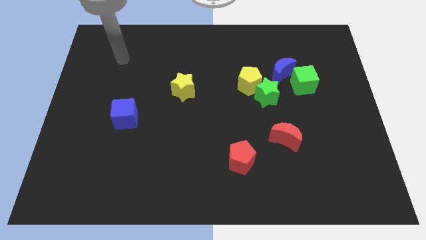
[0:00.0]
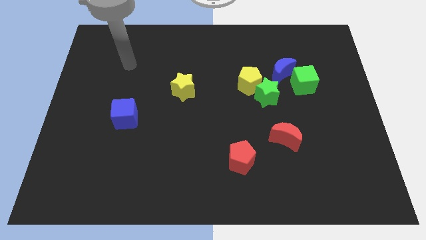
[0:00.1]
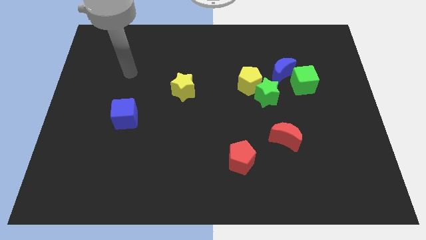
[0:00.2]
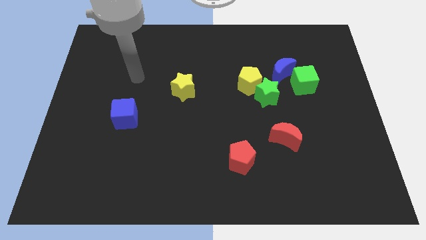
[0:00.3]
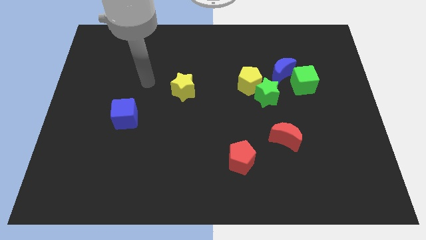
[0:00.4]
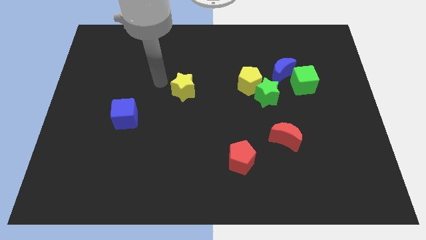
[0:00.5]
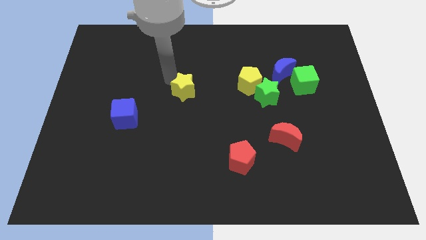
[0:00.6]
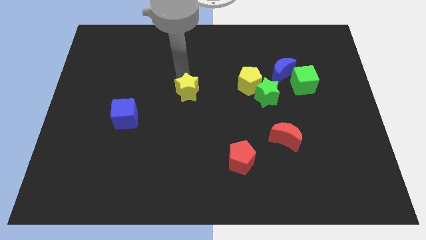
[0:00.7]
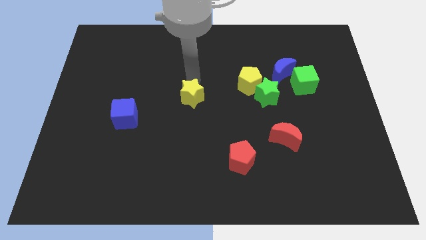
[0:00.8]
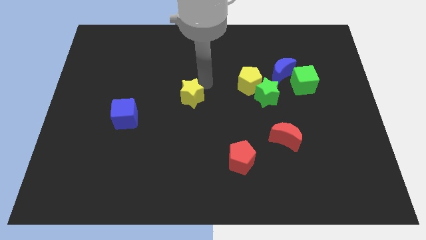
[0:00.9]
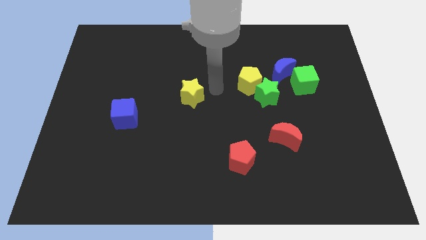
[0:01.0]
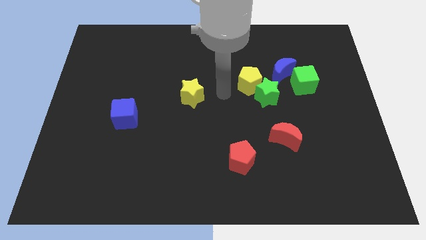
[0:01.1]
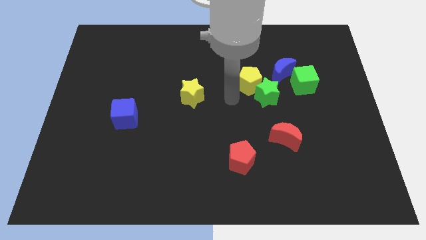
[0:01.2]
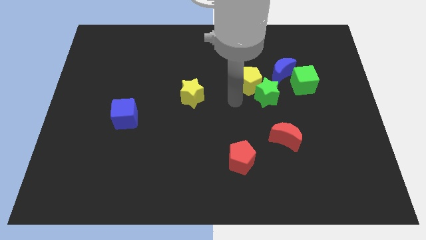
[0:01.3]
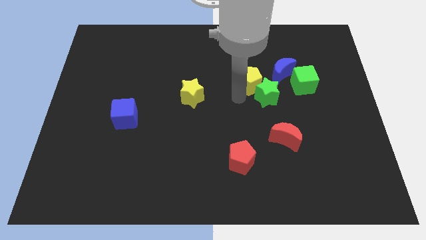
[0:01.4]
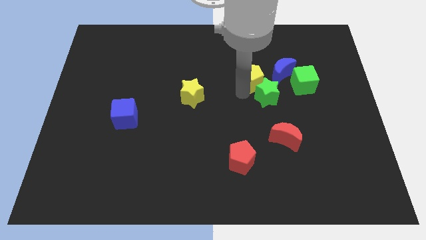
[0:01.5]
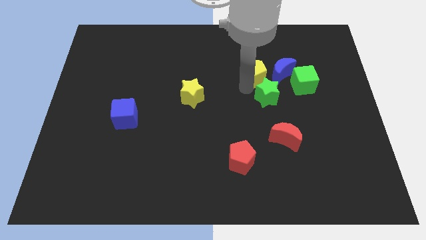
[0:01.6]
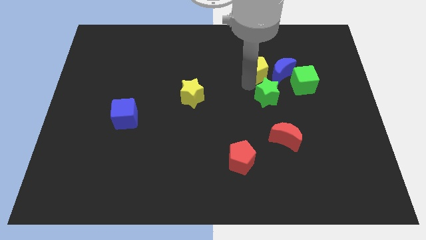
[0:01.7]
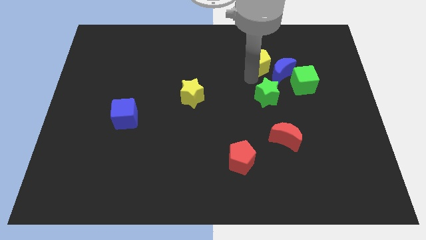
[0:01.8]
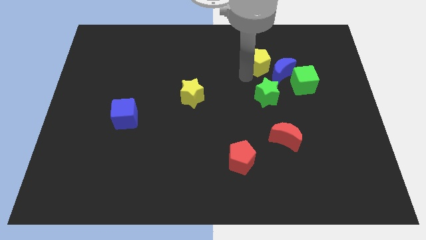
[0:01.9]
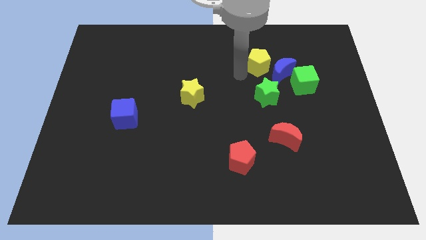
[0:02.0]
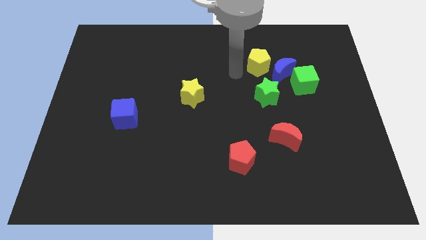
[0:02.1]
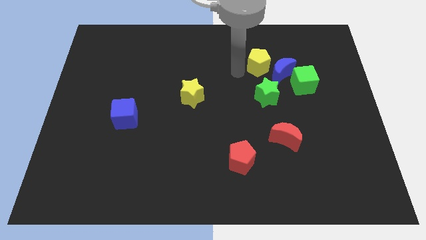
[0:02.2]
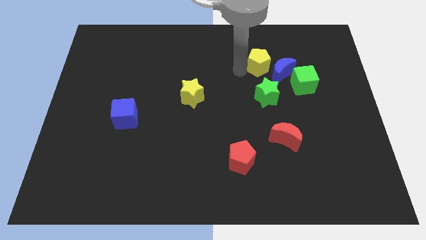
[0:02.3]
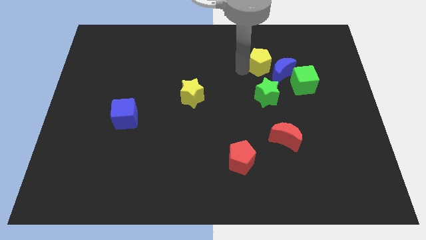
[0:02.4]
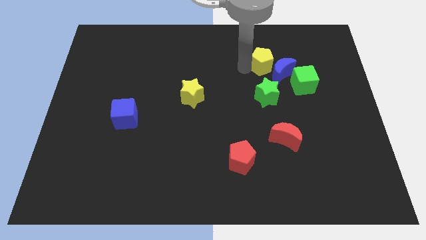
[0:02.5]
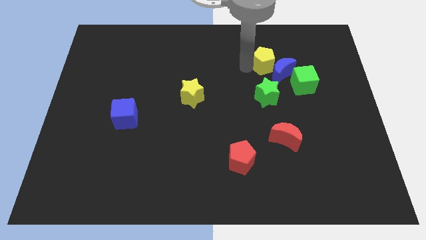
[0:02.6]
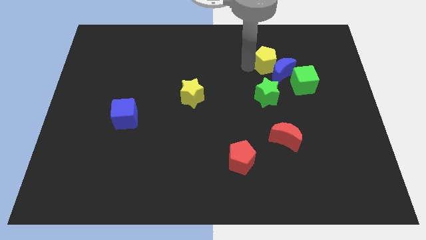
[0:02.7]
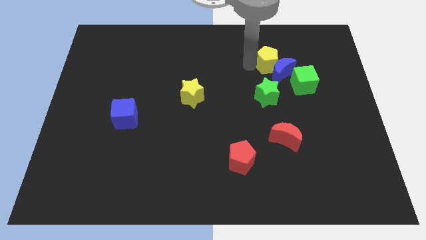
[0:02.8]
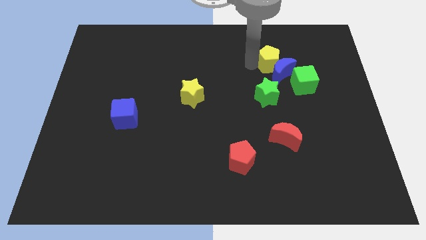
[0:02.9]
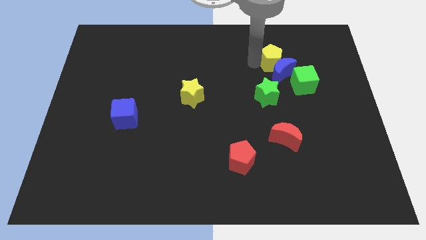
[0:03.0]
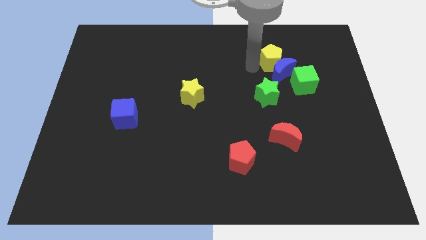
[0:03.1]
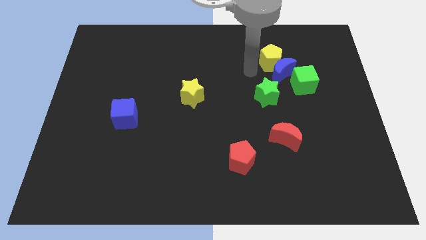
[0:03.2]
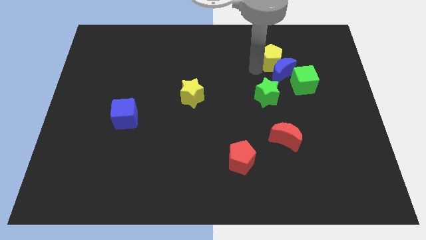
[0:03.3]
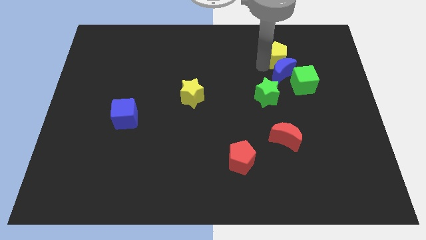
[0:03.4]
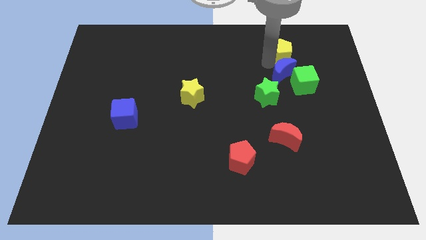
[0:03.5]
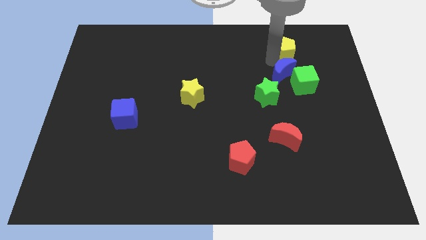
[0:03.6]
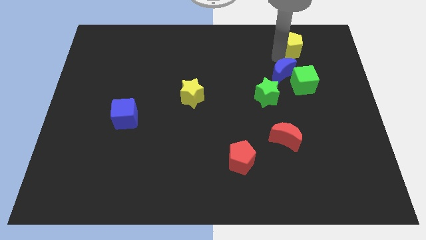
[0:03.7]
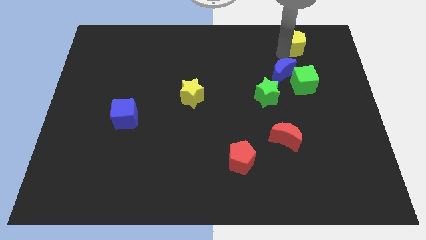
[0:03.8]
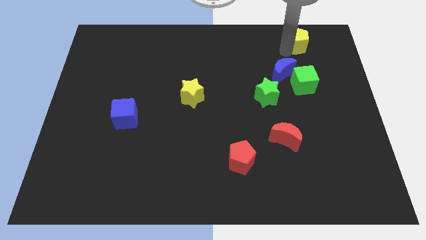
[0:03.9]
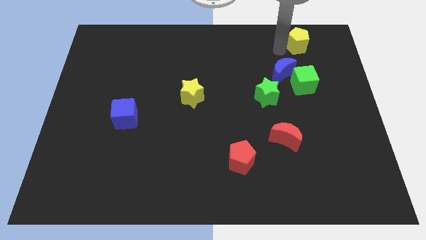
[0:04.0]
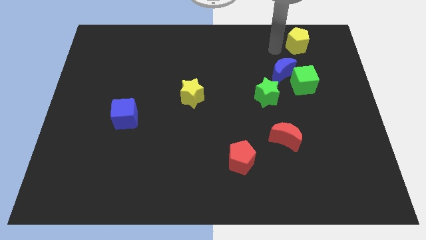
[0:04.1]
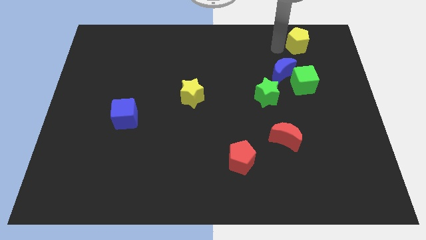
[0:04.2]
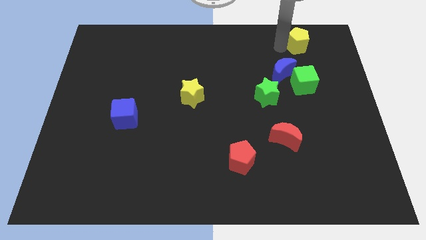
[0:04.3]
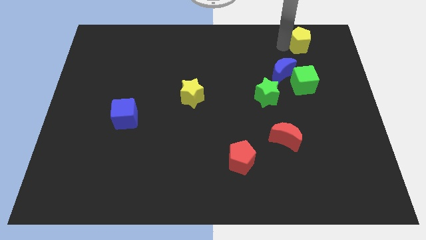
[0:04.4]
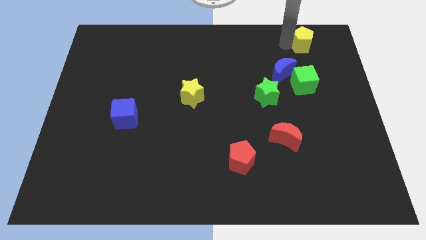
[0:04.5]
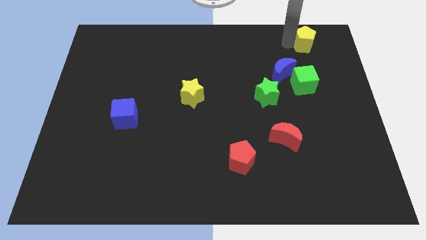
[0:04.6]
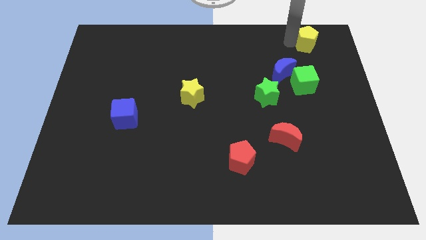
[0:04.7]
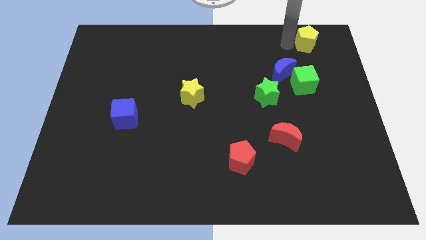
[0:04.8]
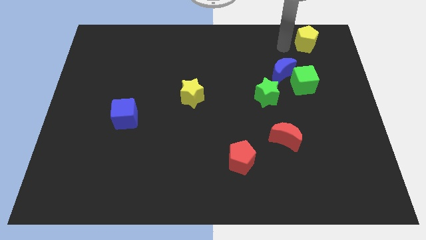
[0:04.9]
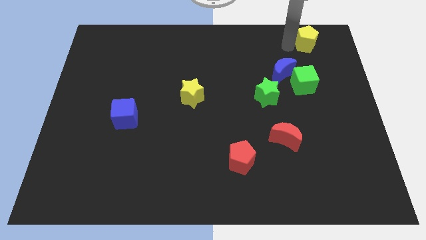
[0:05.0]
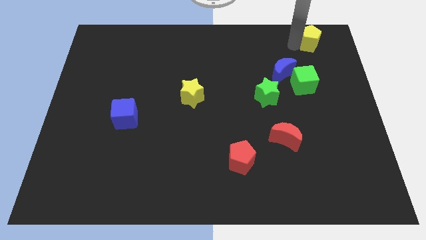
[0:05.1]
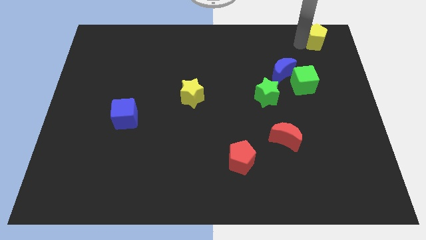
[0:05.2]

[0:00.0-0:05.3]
slide the yellow pentagon to the top right corner

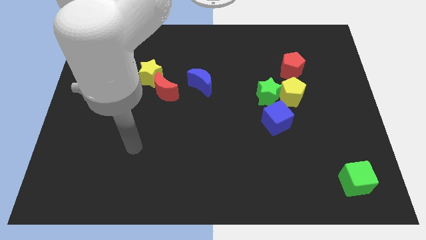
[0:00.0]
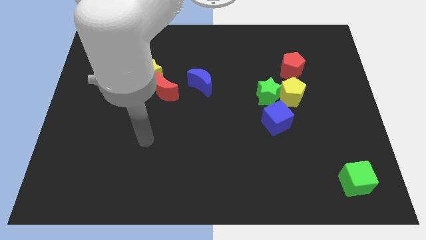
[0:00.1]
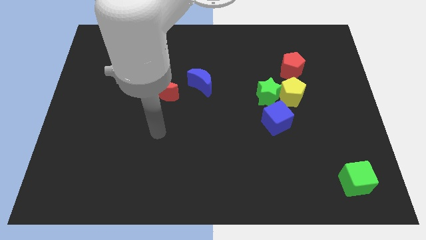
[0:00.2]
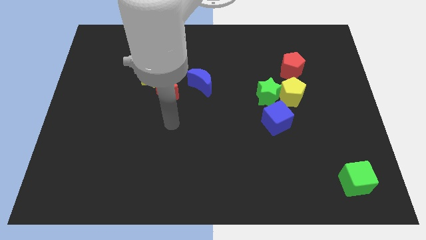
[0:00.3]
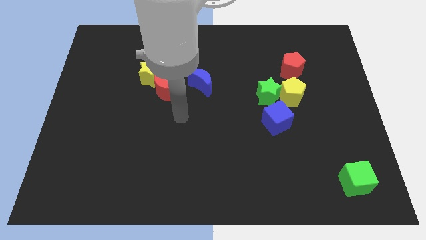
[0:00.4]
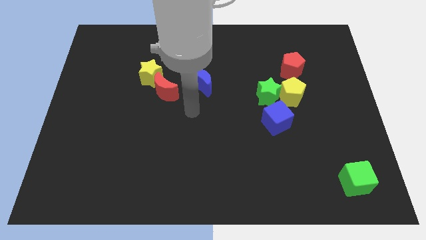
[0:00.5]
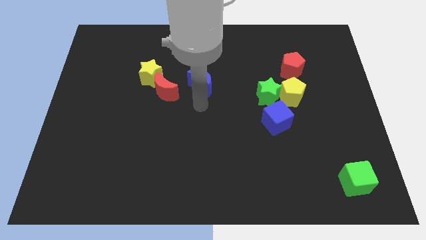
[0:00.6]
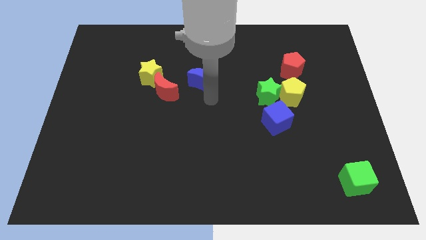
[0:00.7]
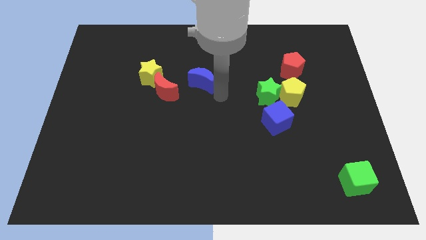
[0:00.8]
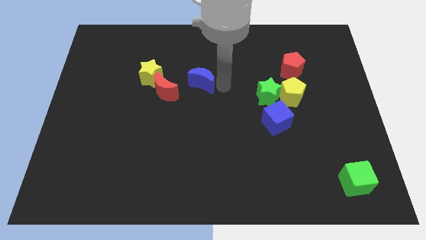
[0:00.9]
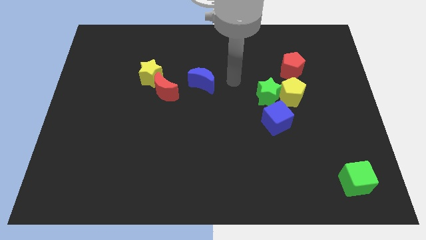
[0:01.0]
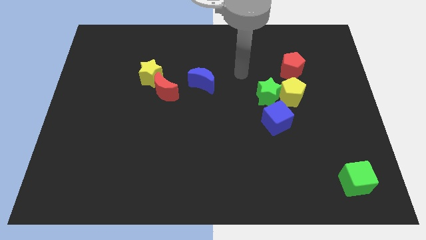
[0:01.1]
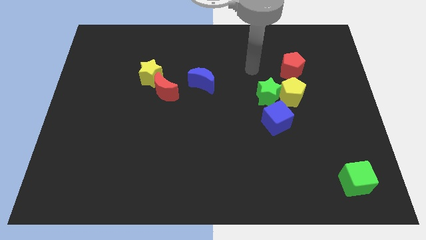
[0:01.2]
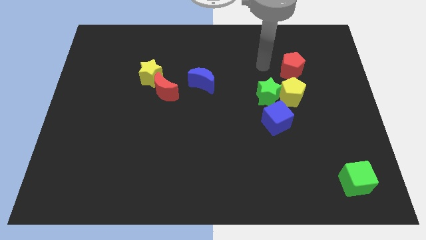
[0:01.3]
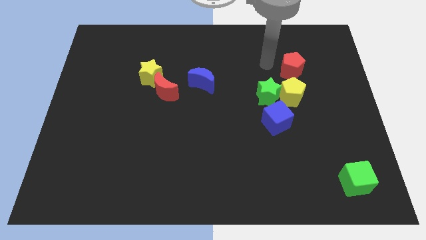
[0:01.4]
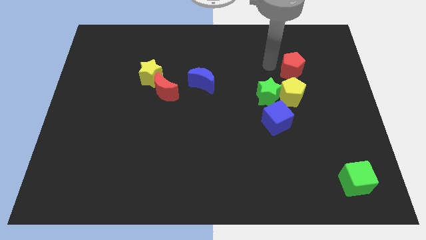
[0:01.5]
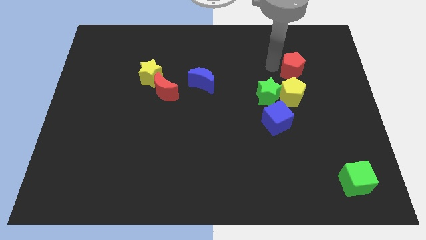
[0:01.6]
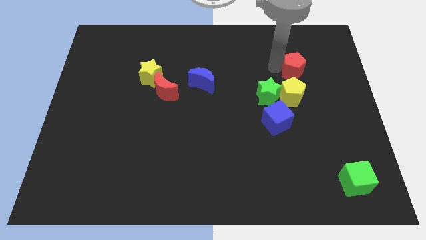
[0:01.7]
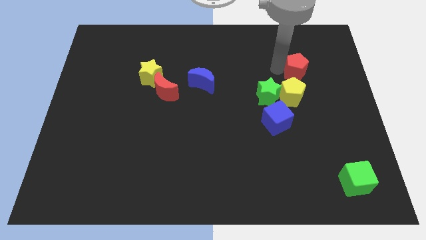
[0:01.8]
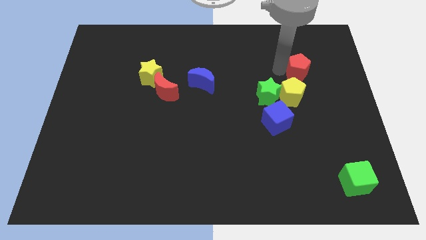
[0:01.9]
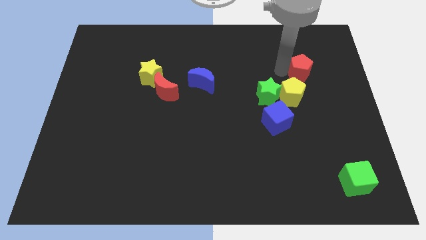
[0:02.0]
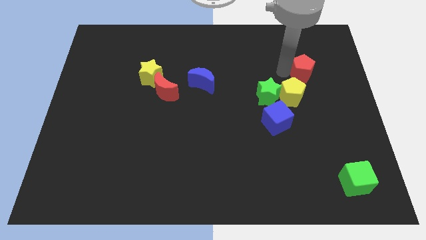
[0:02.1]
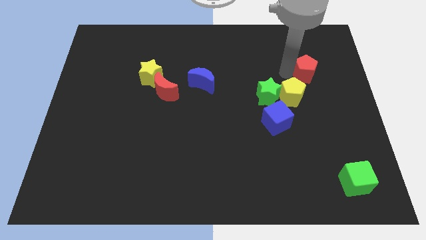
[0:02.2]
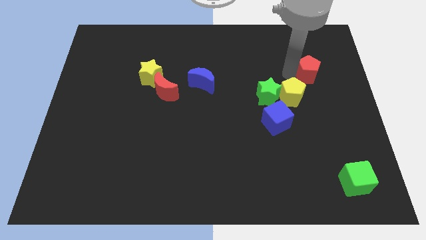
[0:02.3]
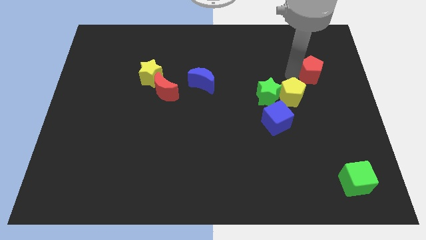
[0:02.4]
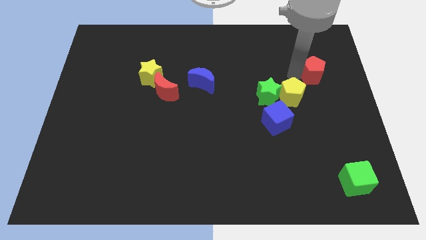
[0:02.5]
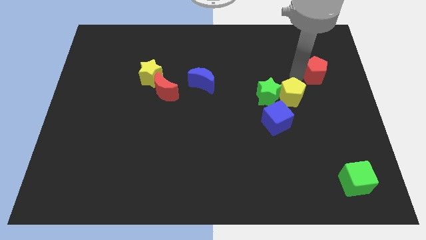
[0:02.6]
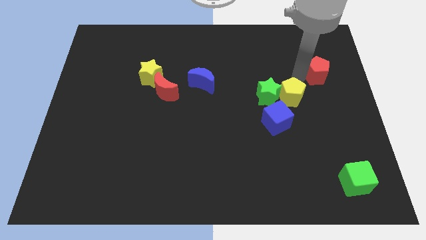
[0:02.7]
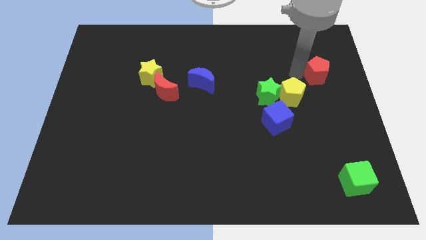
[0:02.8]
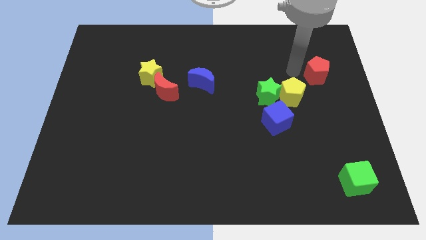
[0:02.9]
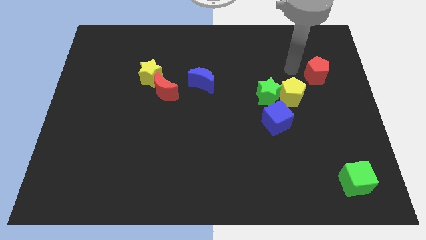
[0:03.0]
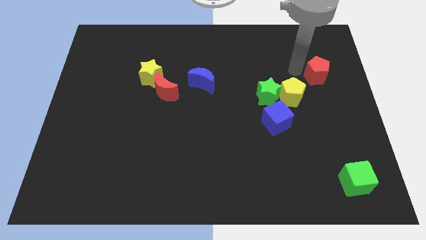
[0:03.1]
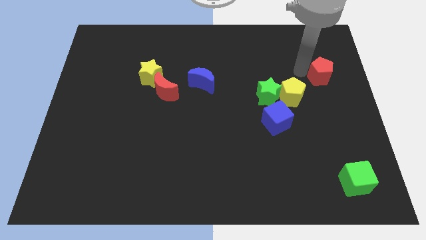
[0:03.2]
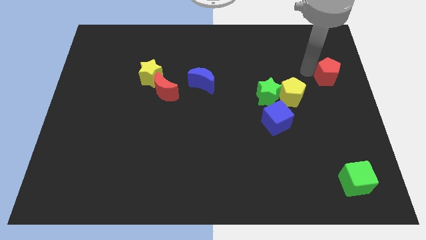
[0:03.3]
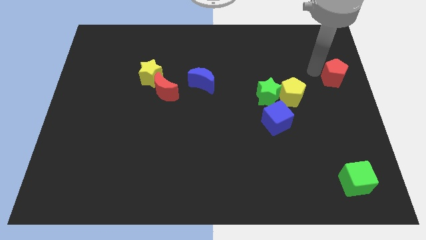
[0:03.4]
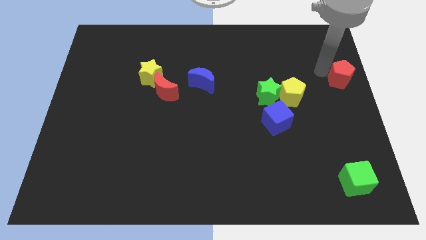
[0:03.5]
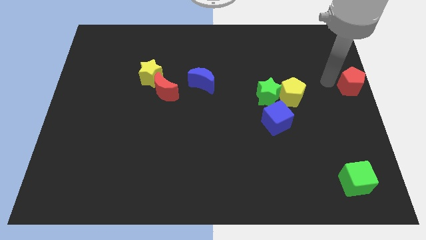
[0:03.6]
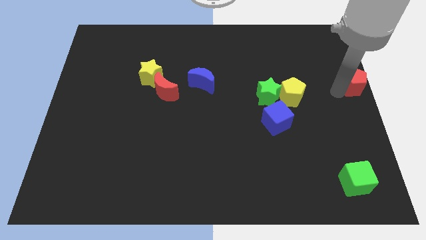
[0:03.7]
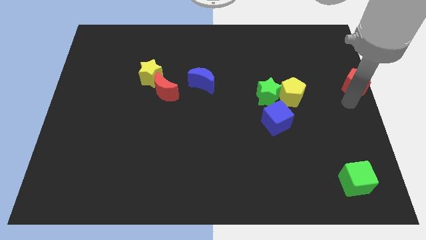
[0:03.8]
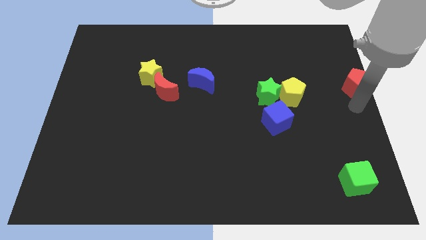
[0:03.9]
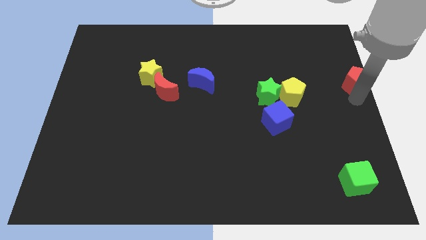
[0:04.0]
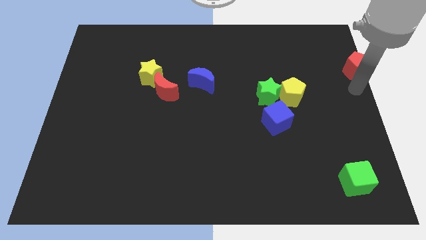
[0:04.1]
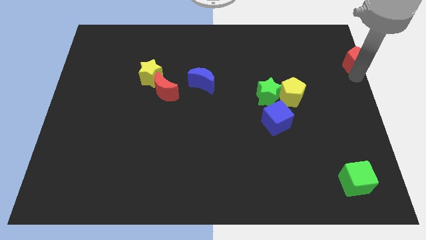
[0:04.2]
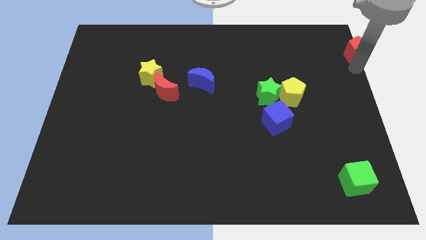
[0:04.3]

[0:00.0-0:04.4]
put the red pentagon to the top right corner
